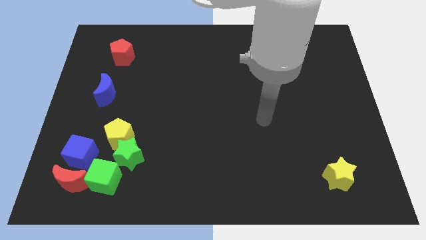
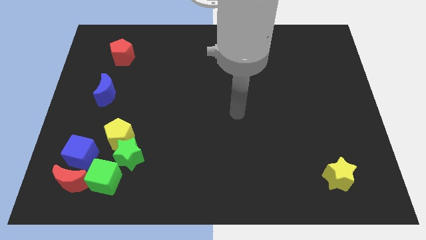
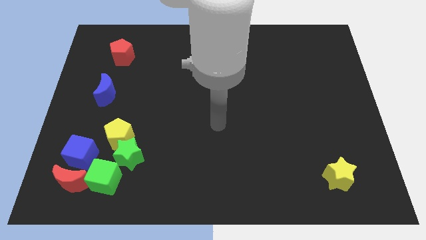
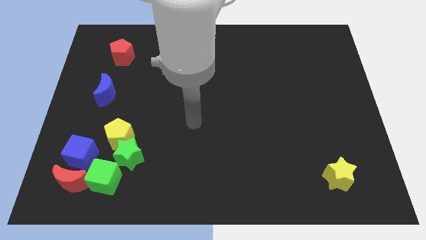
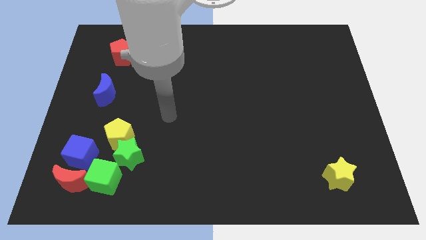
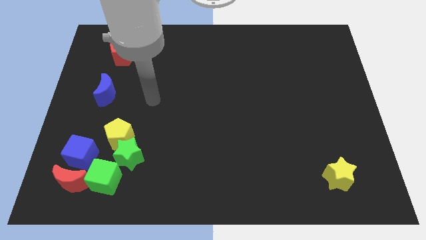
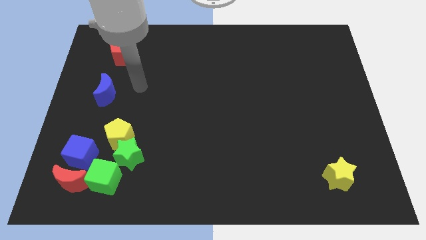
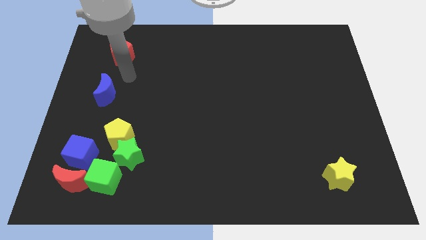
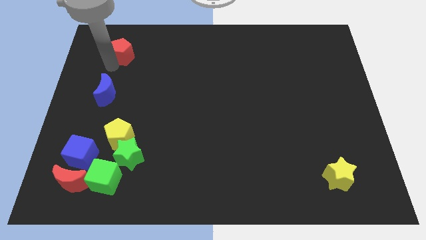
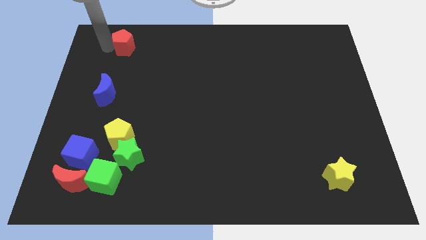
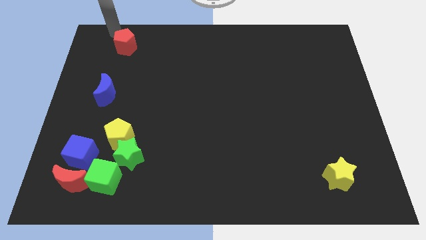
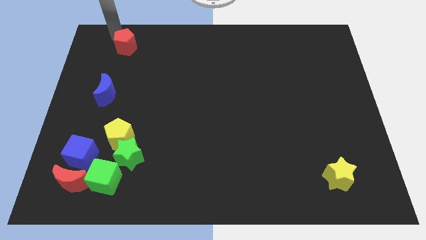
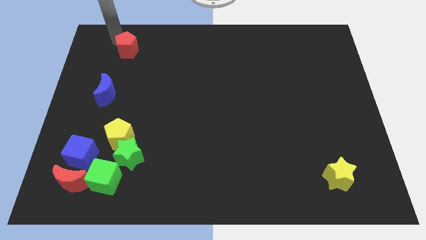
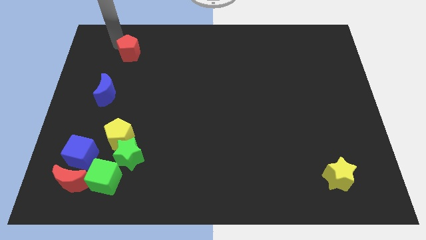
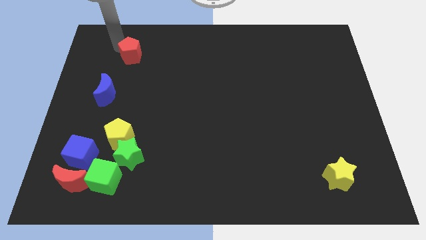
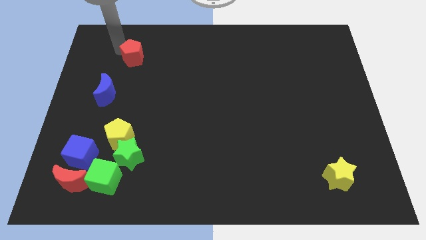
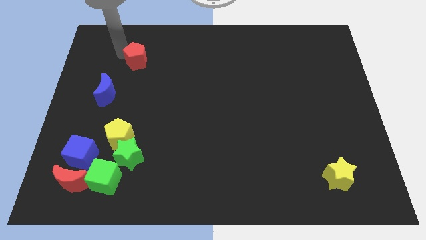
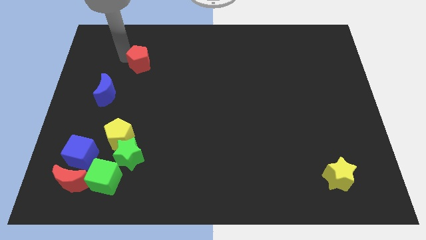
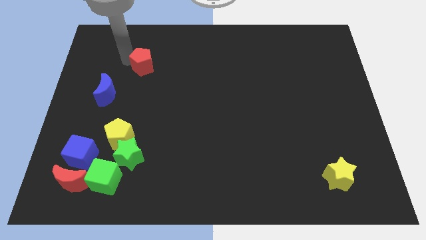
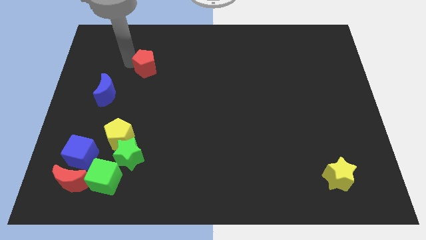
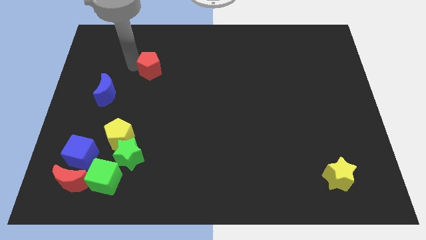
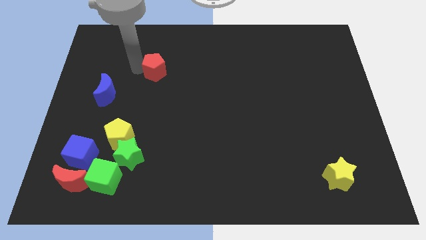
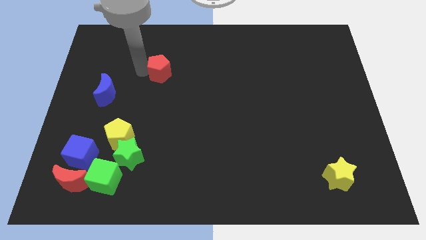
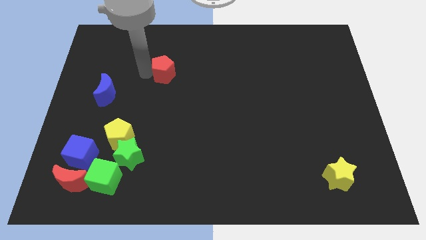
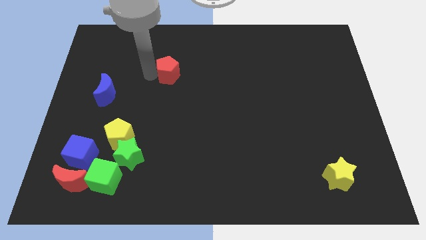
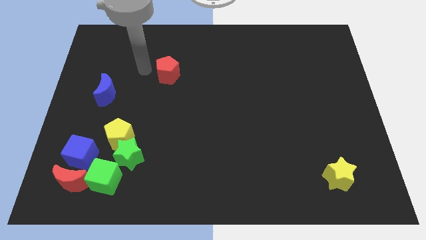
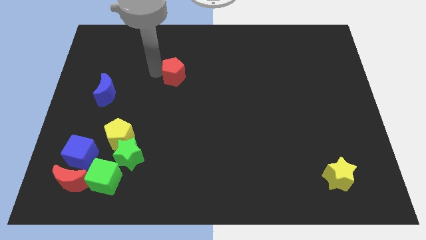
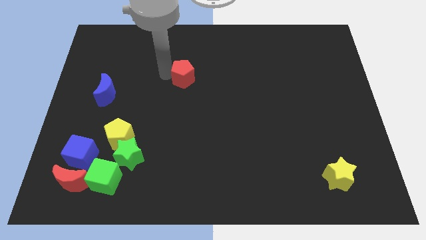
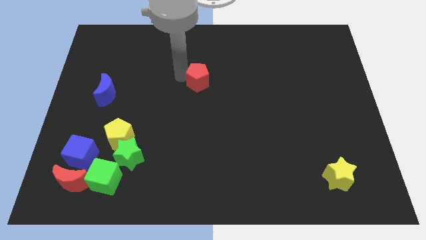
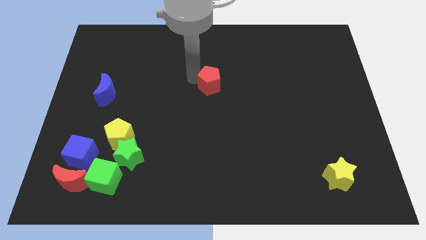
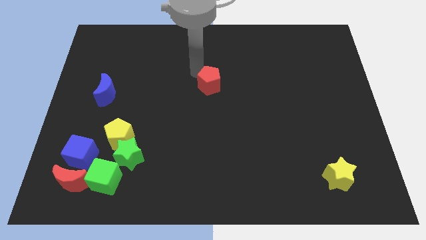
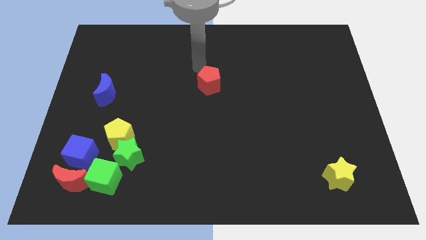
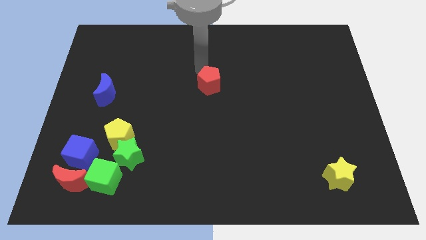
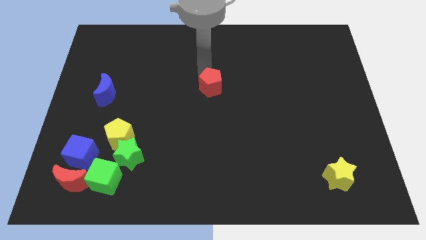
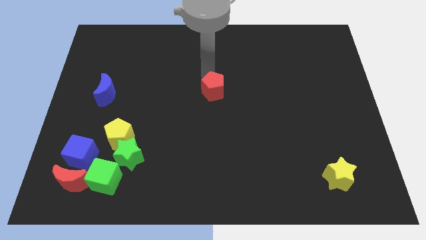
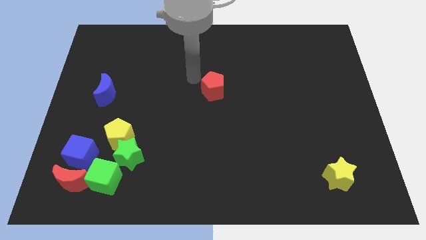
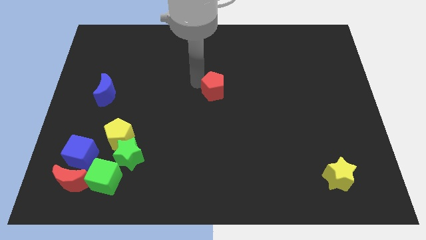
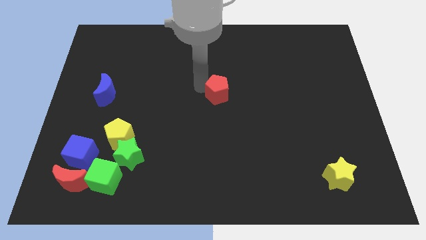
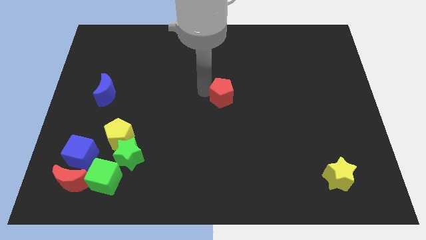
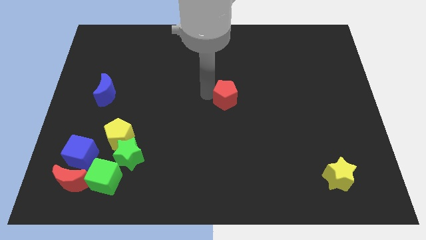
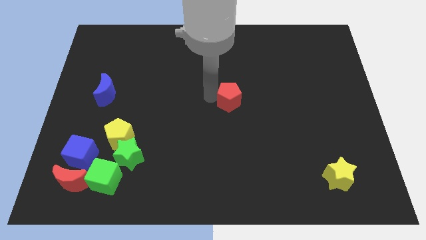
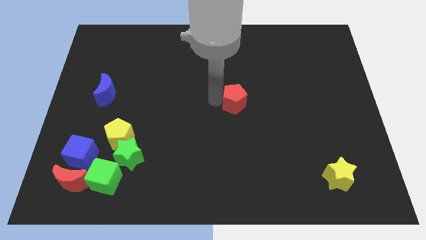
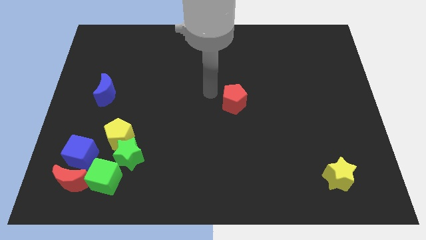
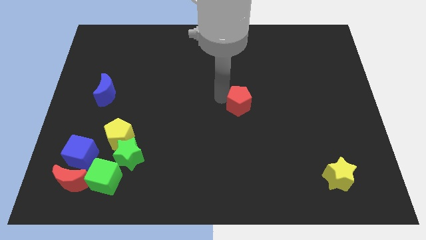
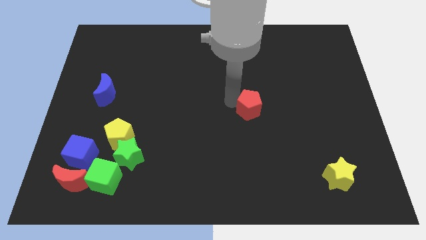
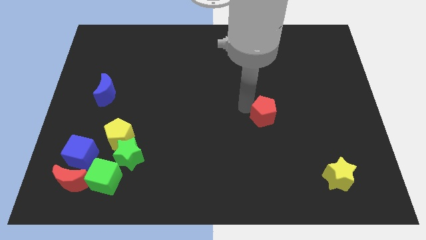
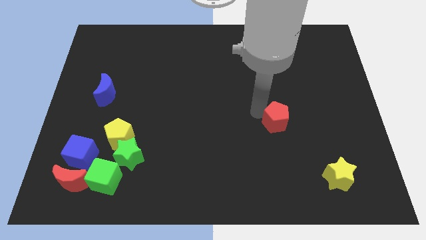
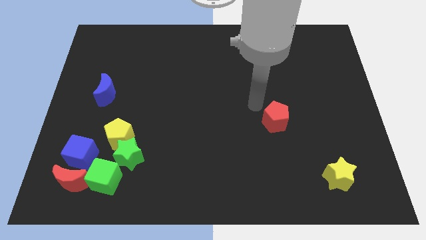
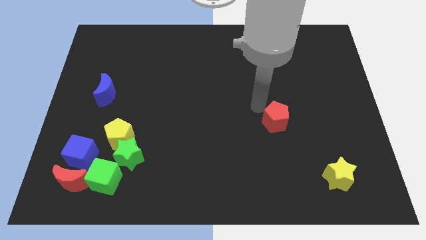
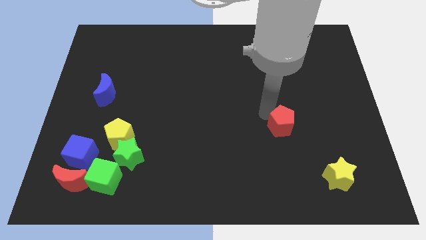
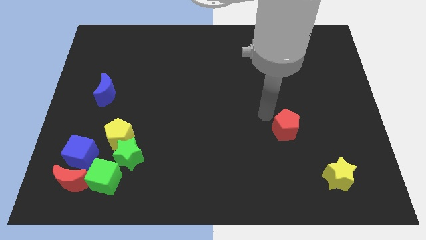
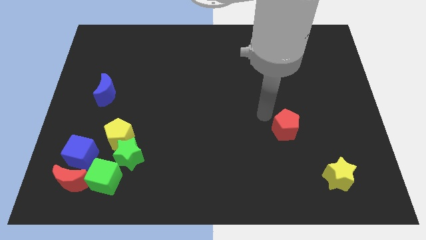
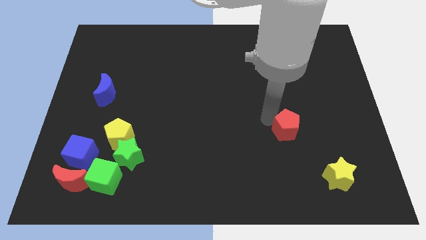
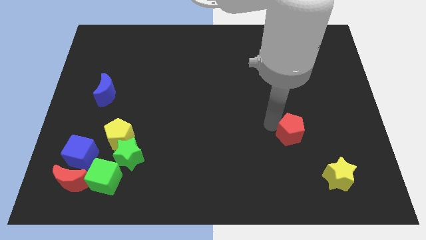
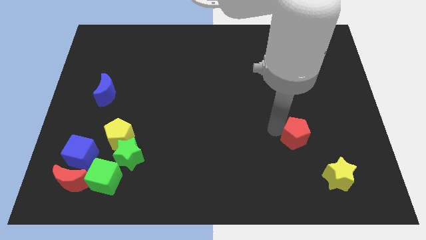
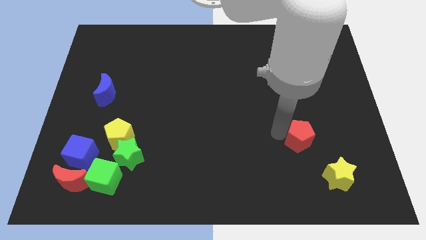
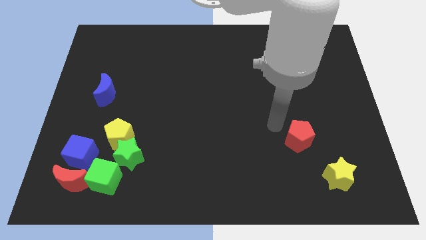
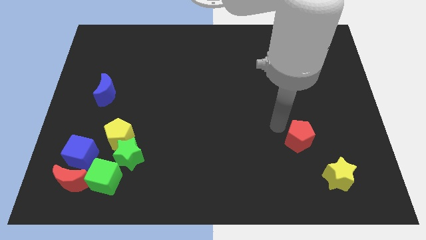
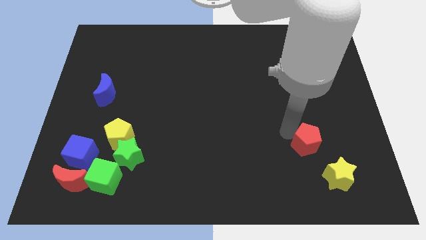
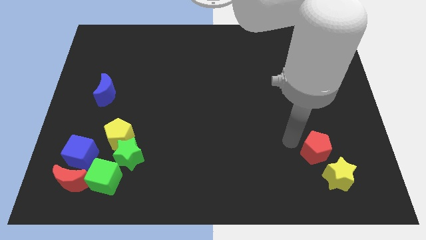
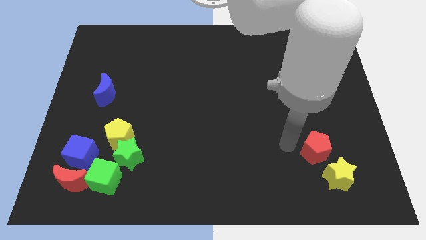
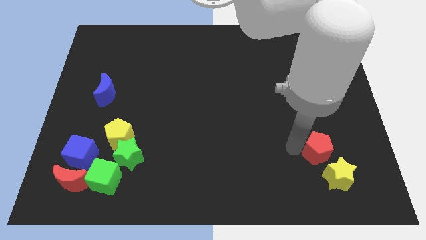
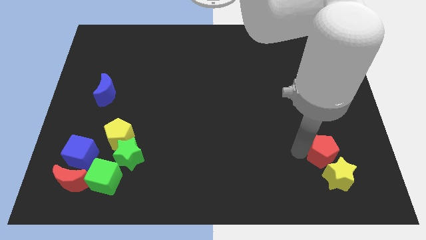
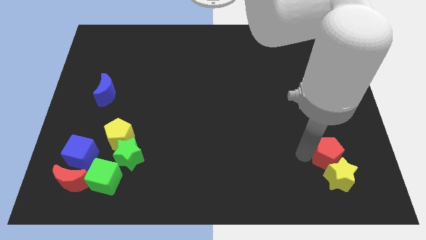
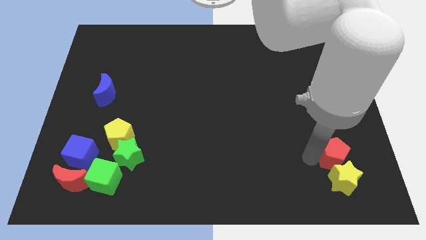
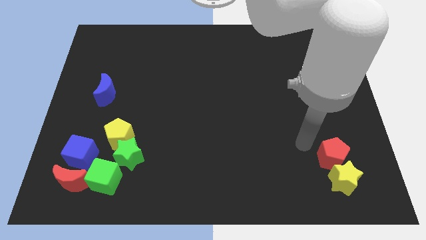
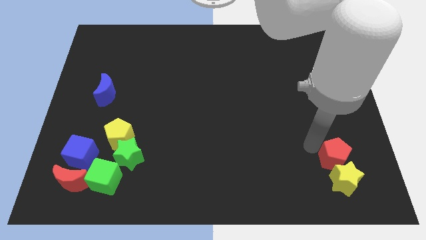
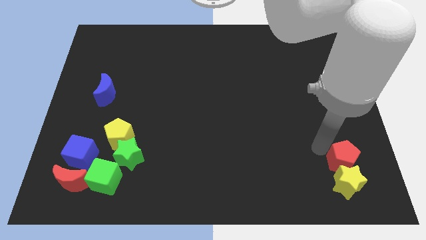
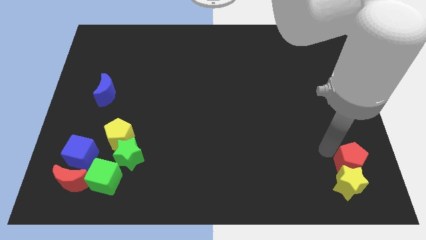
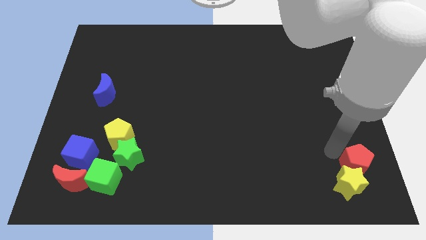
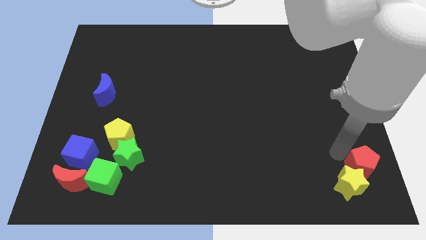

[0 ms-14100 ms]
move the red pentagon to the bottom right of the board

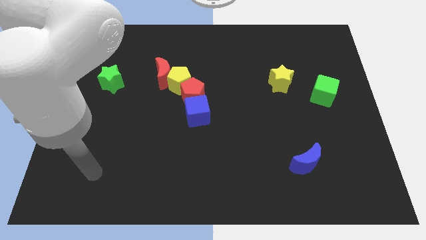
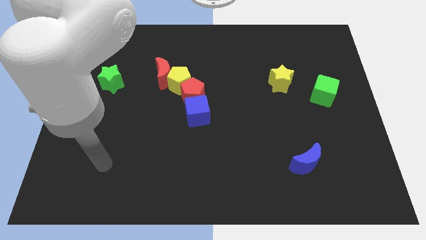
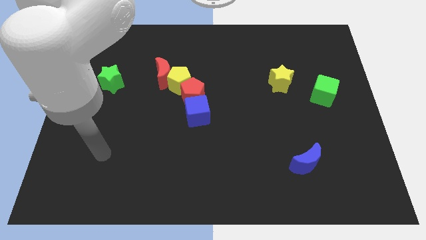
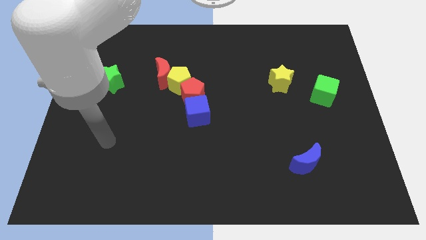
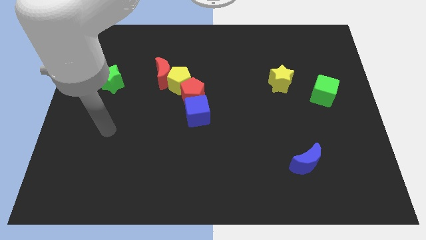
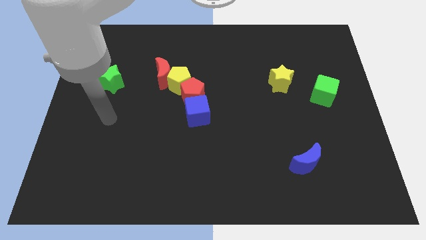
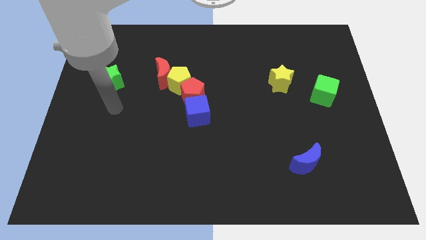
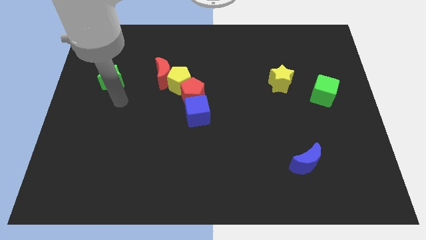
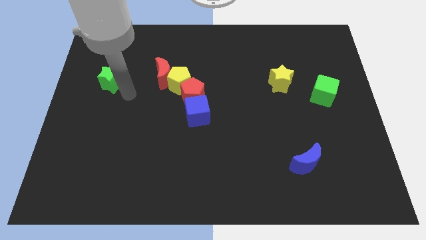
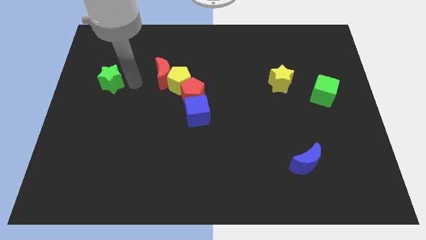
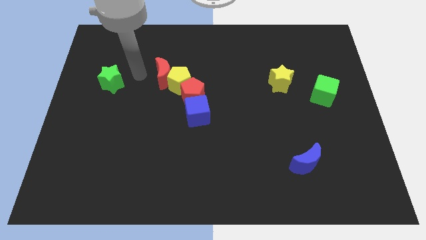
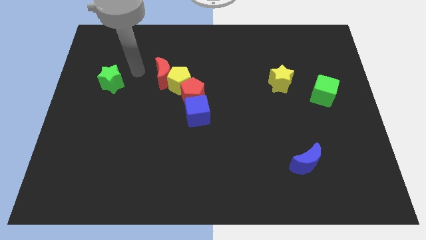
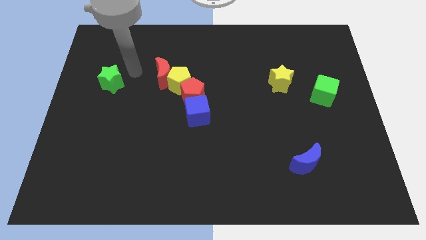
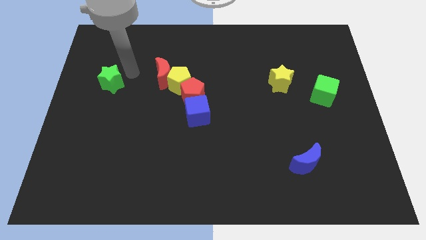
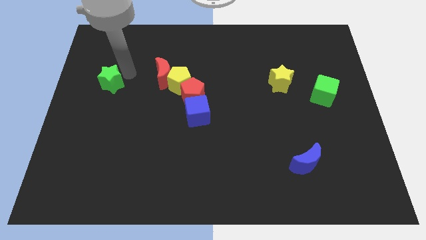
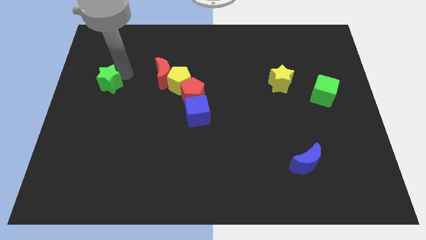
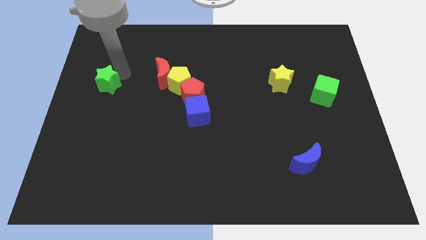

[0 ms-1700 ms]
push the green star to the left side
